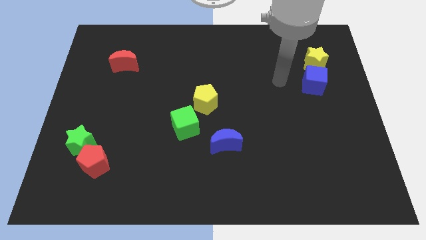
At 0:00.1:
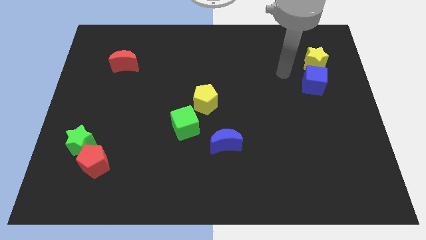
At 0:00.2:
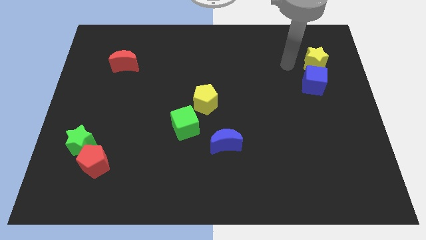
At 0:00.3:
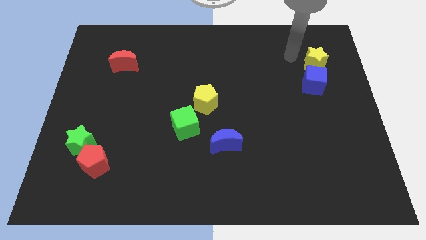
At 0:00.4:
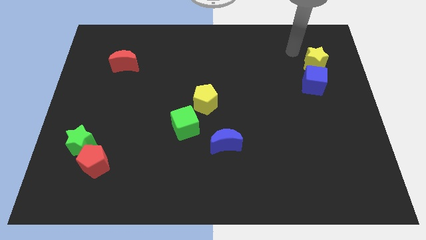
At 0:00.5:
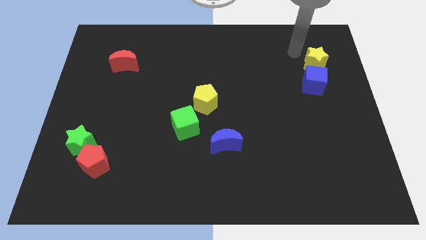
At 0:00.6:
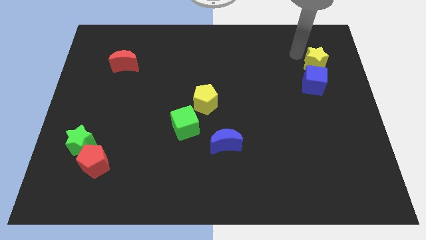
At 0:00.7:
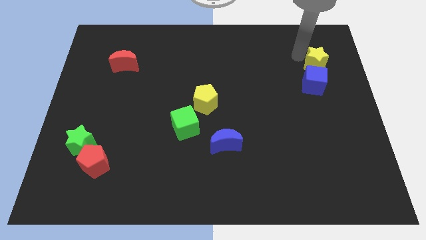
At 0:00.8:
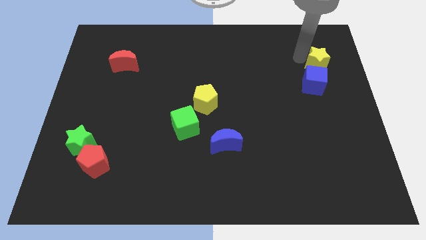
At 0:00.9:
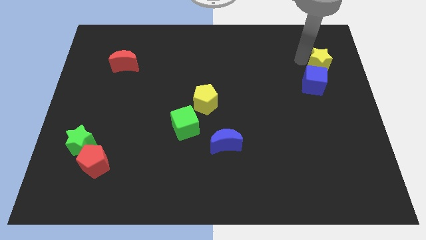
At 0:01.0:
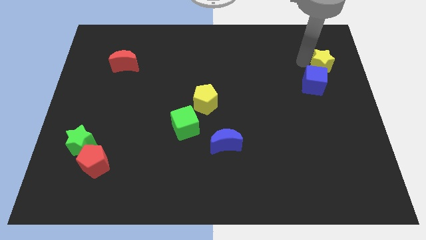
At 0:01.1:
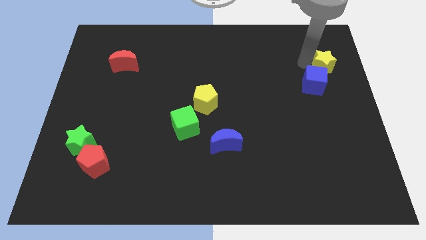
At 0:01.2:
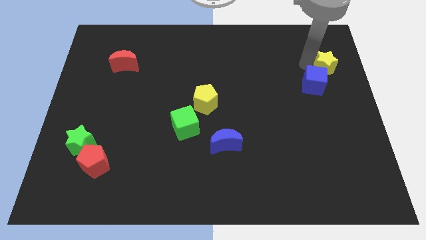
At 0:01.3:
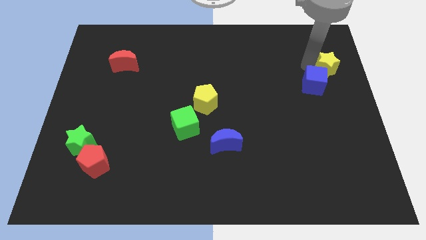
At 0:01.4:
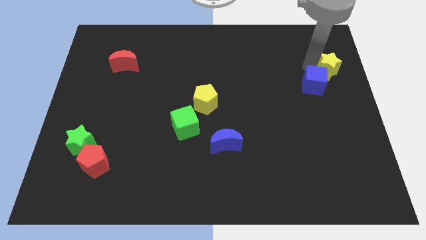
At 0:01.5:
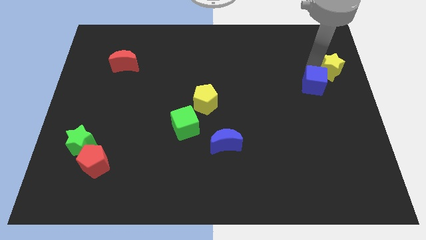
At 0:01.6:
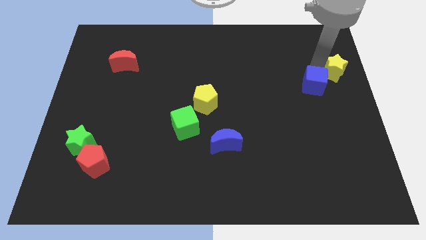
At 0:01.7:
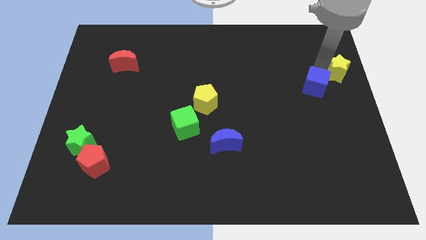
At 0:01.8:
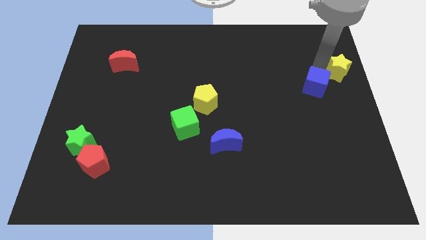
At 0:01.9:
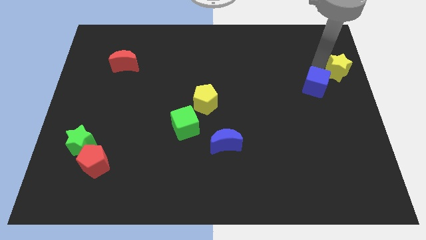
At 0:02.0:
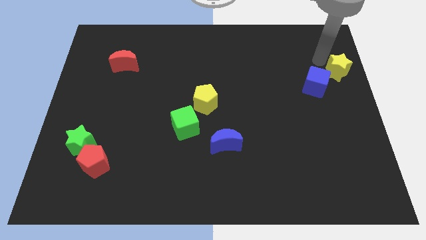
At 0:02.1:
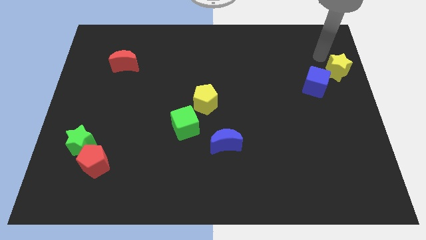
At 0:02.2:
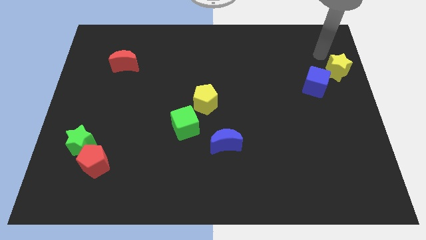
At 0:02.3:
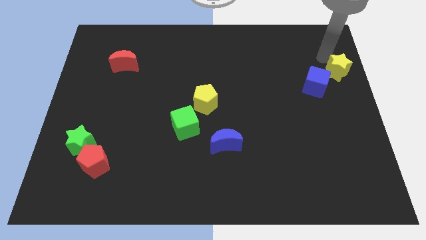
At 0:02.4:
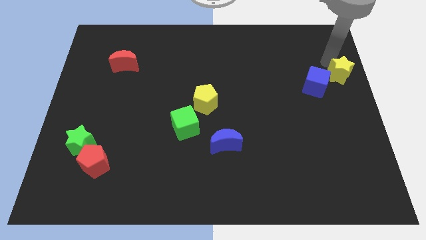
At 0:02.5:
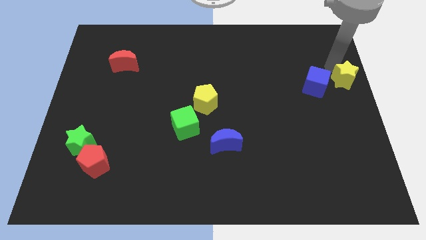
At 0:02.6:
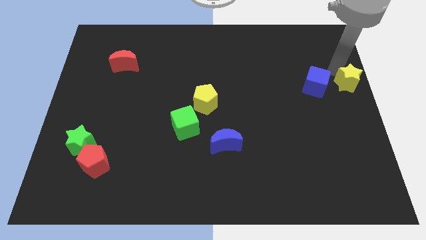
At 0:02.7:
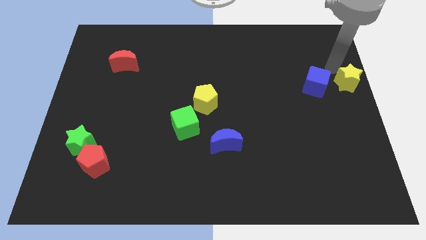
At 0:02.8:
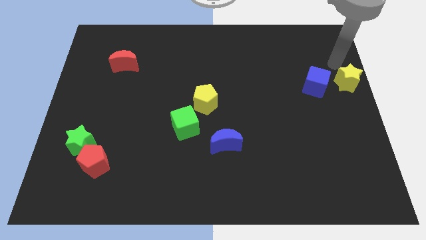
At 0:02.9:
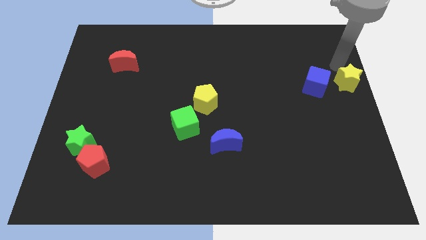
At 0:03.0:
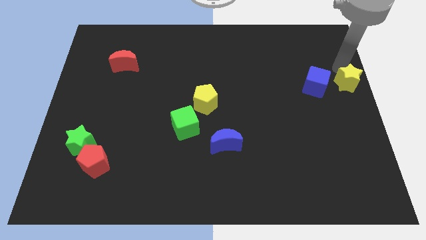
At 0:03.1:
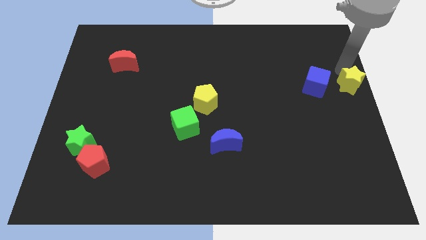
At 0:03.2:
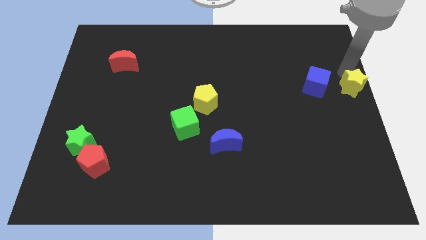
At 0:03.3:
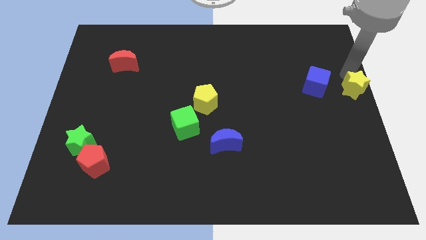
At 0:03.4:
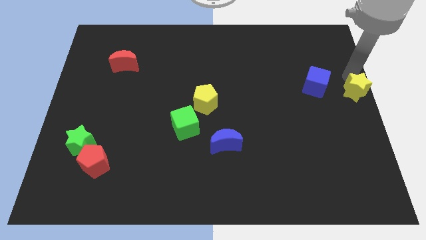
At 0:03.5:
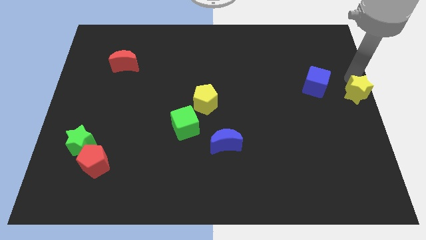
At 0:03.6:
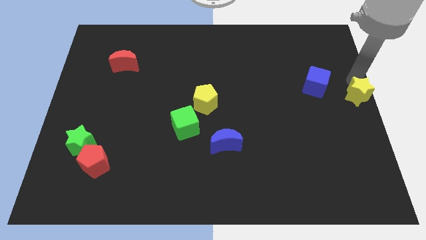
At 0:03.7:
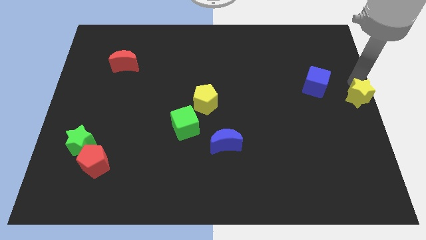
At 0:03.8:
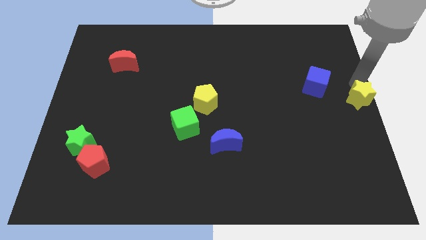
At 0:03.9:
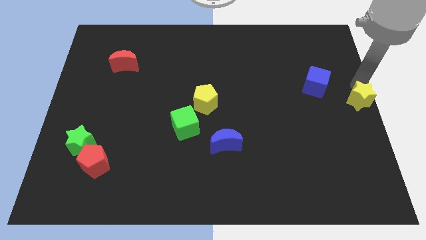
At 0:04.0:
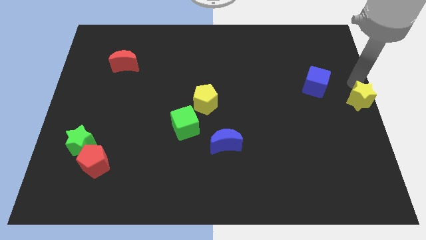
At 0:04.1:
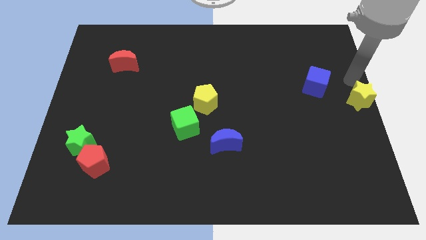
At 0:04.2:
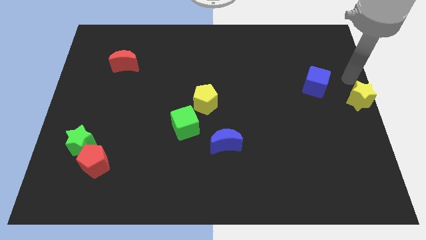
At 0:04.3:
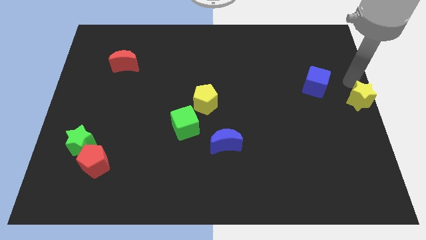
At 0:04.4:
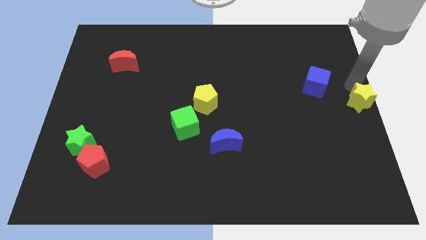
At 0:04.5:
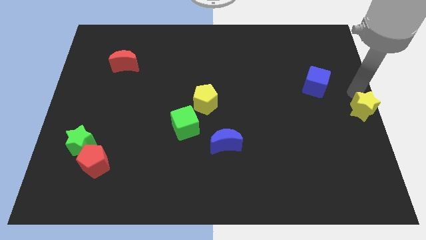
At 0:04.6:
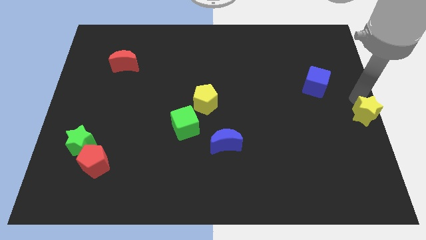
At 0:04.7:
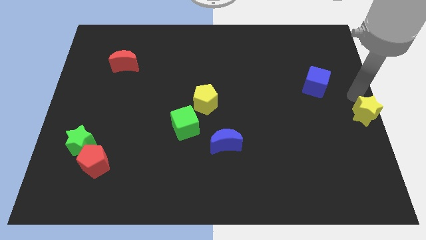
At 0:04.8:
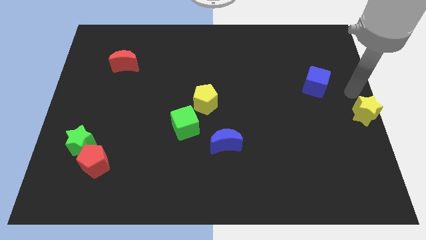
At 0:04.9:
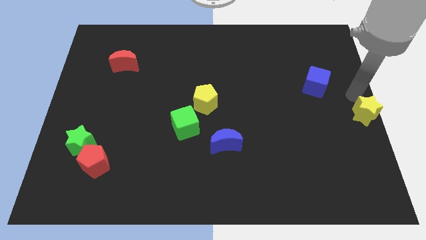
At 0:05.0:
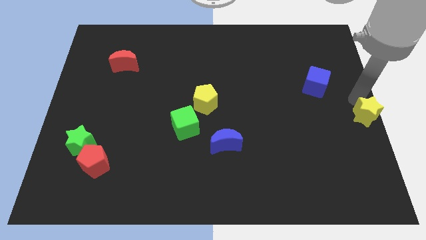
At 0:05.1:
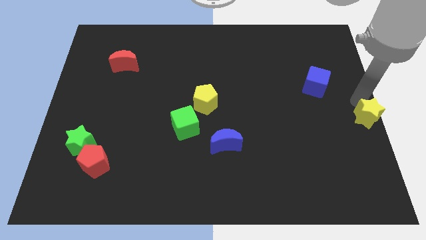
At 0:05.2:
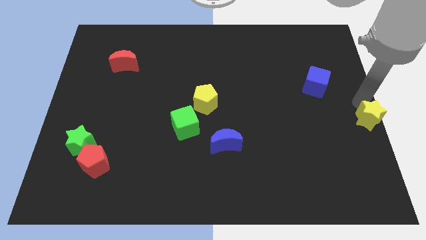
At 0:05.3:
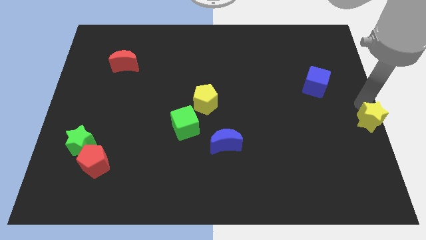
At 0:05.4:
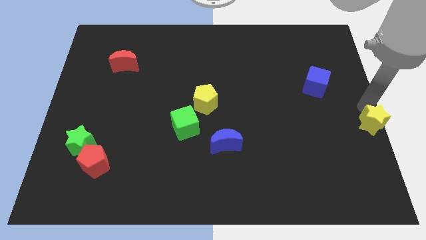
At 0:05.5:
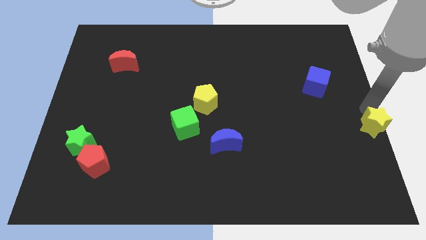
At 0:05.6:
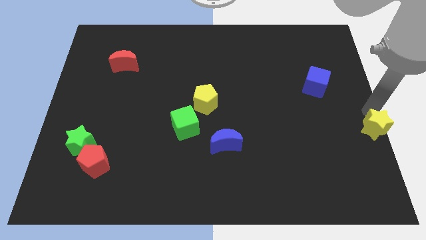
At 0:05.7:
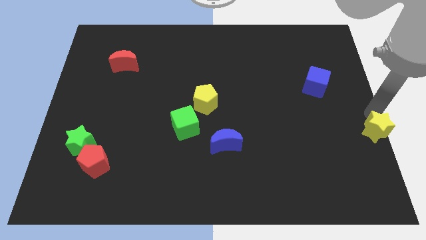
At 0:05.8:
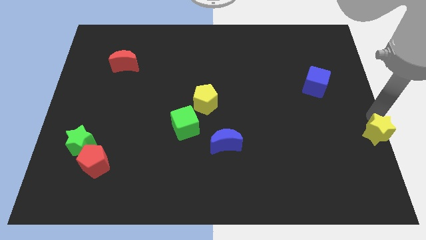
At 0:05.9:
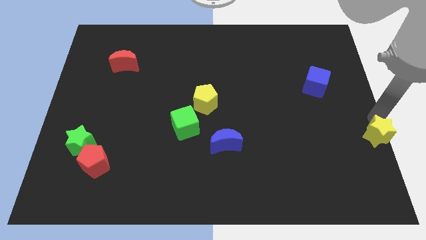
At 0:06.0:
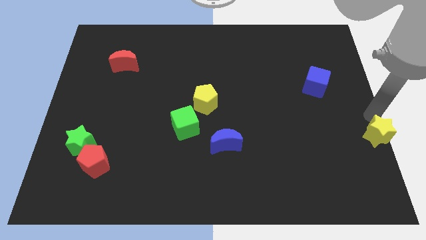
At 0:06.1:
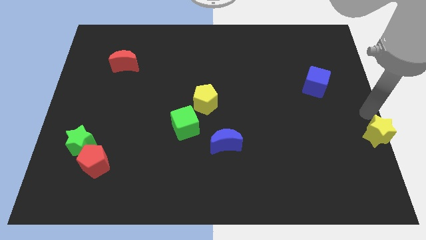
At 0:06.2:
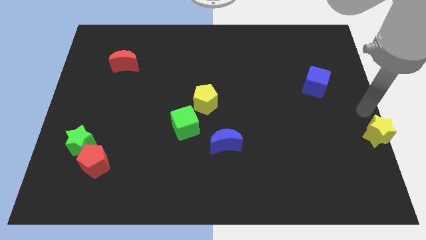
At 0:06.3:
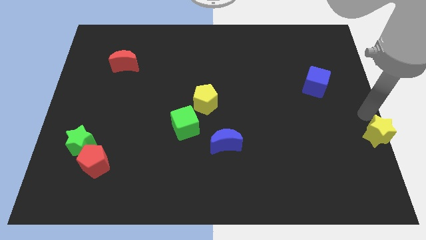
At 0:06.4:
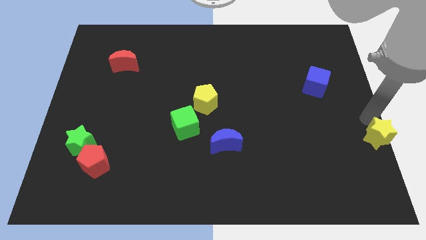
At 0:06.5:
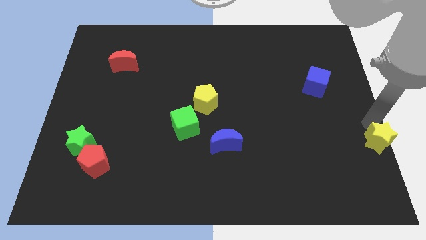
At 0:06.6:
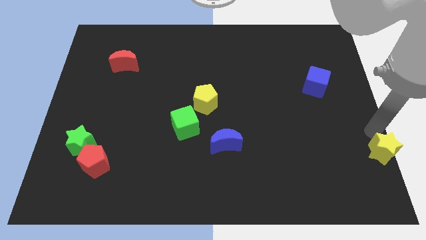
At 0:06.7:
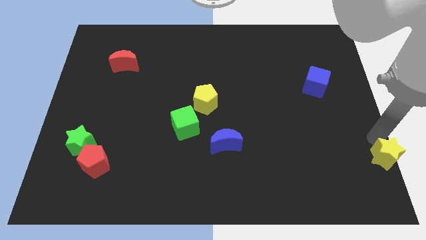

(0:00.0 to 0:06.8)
move the yellow star to the bottom right of the board
